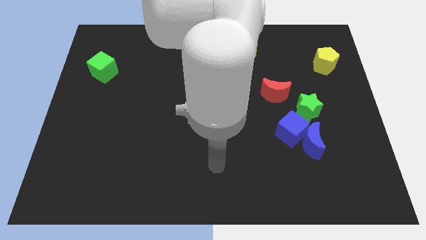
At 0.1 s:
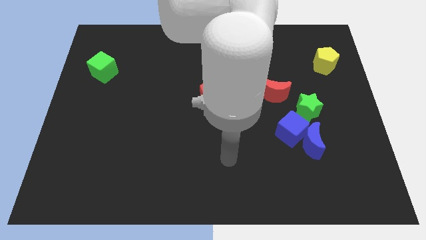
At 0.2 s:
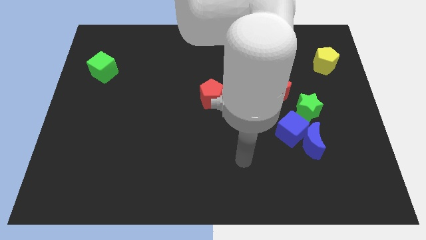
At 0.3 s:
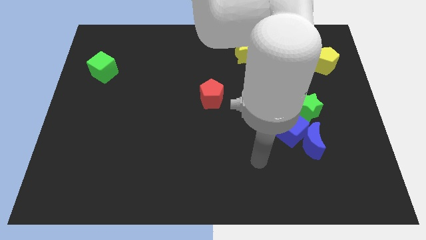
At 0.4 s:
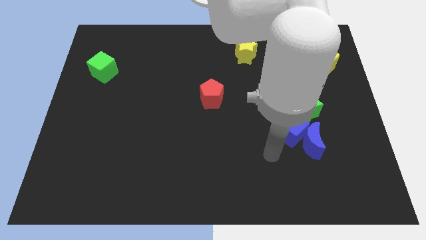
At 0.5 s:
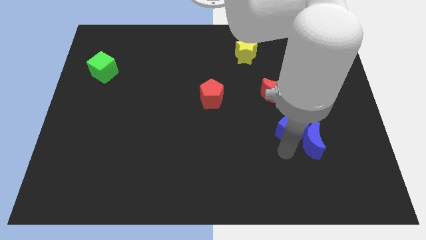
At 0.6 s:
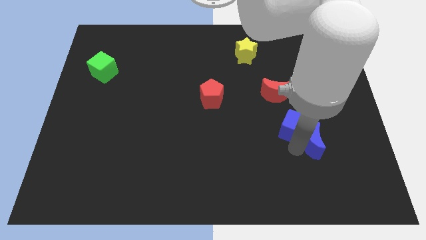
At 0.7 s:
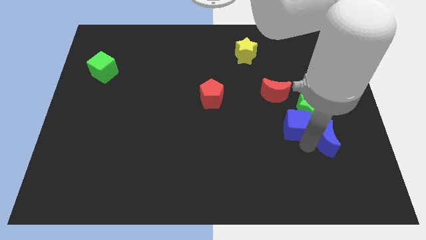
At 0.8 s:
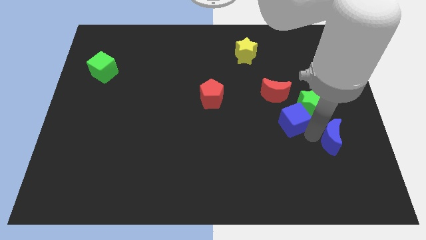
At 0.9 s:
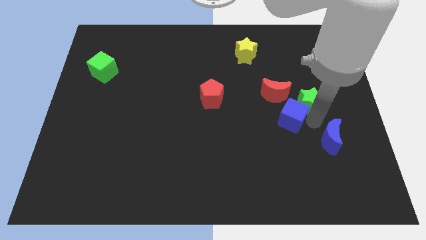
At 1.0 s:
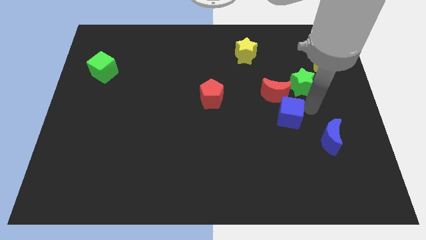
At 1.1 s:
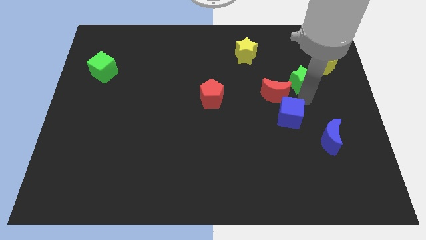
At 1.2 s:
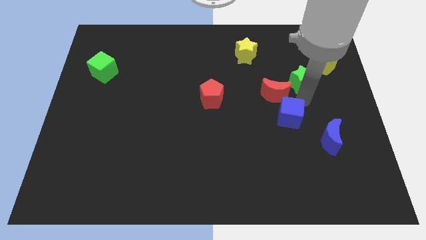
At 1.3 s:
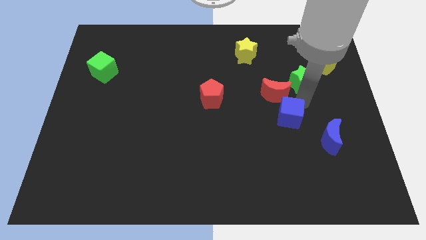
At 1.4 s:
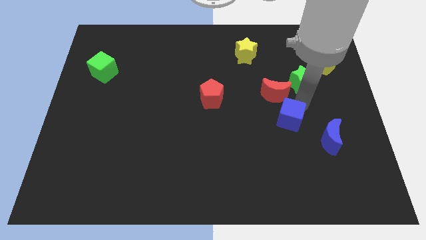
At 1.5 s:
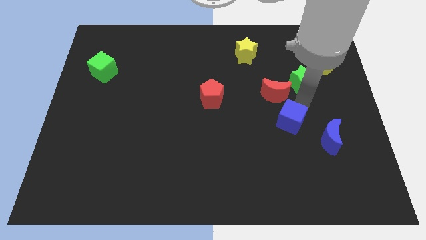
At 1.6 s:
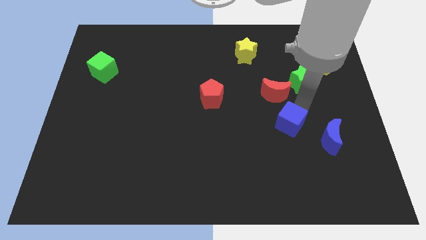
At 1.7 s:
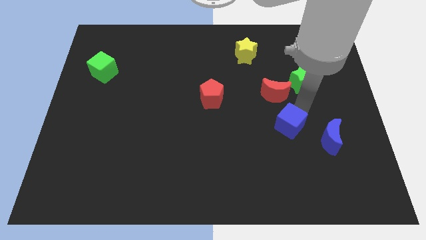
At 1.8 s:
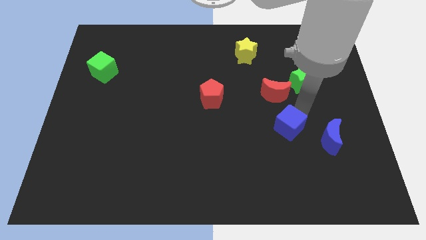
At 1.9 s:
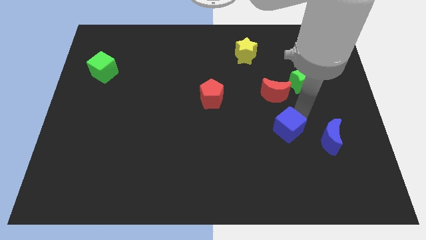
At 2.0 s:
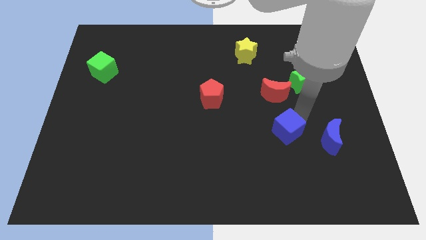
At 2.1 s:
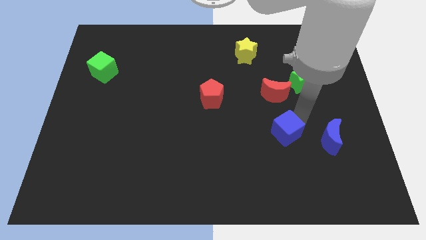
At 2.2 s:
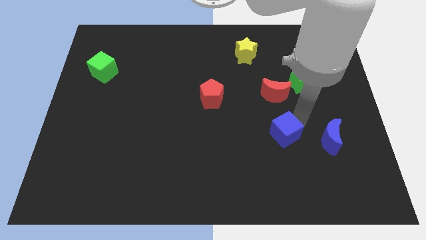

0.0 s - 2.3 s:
move the blue cube away from the blue moon and green star

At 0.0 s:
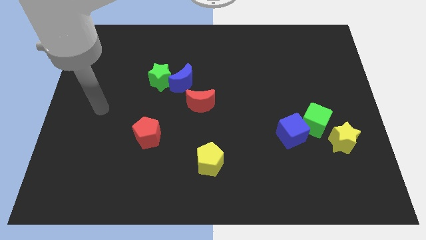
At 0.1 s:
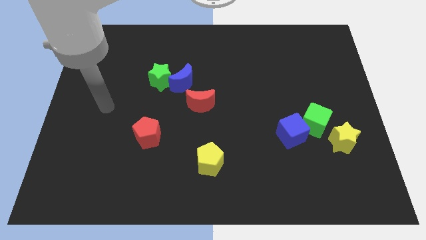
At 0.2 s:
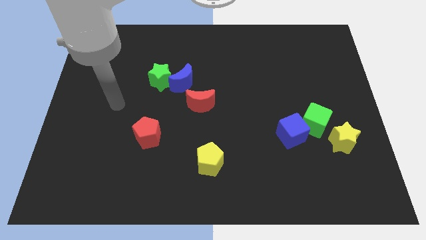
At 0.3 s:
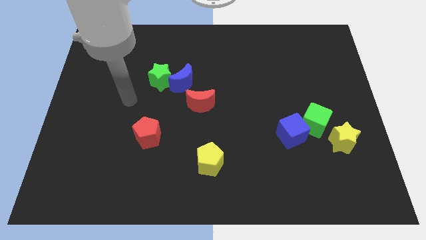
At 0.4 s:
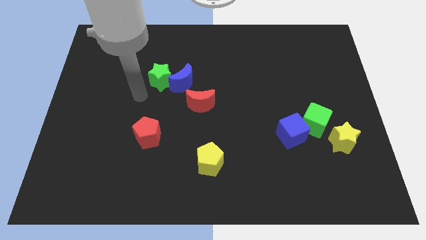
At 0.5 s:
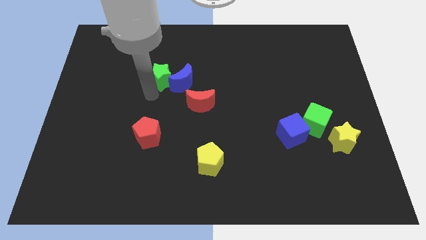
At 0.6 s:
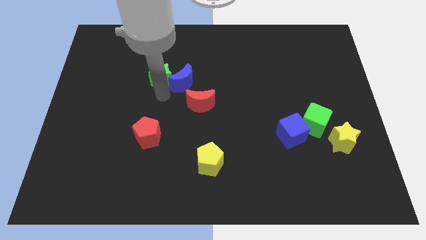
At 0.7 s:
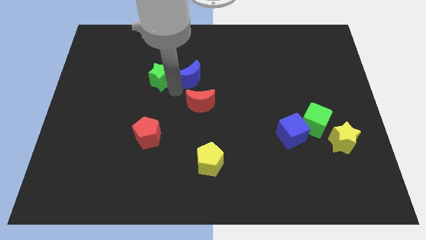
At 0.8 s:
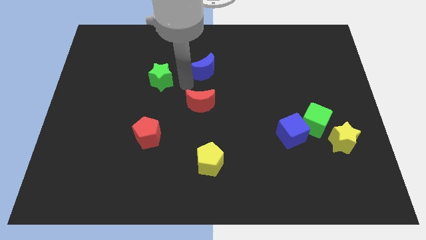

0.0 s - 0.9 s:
separate the green star from the blue moon

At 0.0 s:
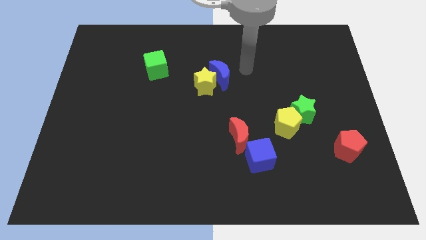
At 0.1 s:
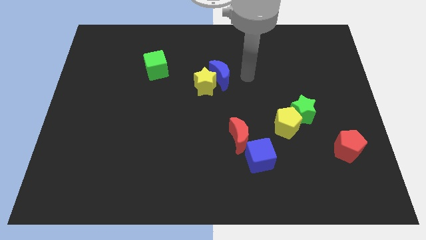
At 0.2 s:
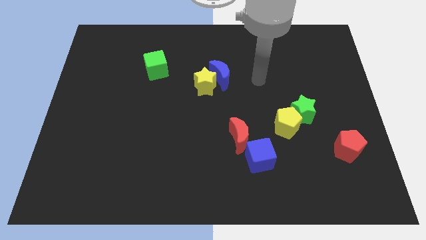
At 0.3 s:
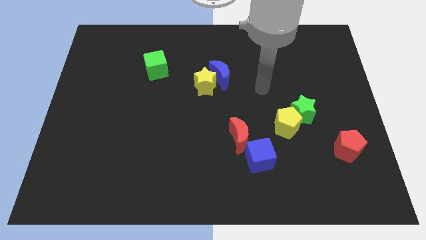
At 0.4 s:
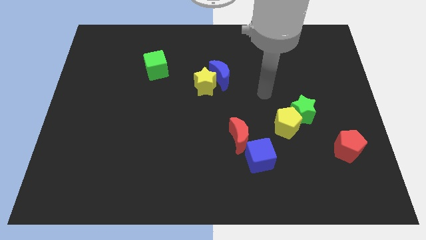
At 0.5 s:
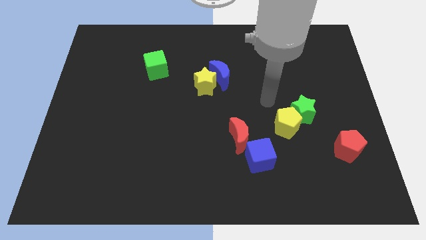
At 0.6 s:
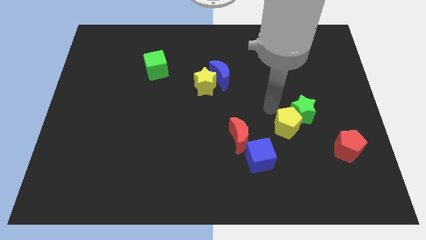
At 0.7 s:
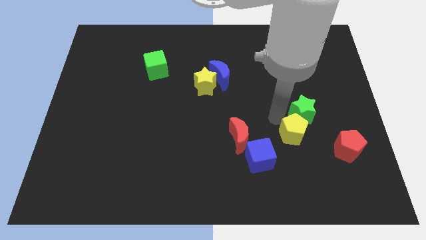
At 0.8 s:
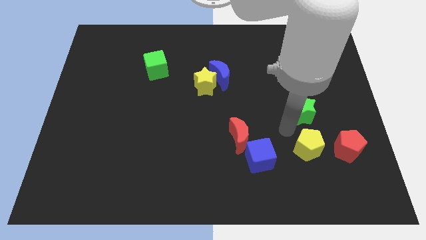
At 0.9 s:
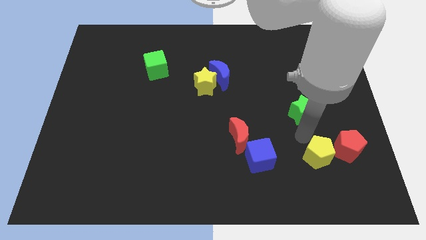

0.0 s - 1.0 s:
separate the green star from the yellow pentagon

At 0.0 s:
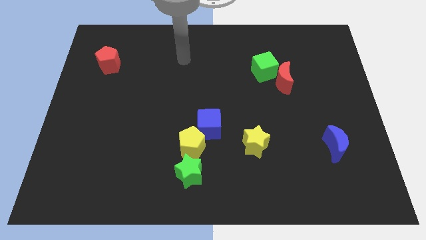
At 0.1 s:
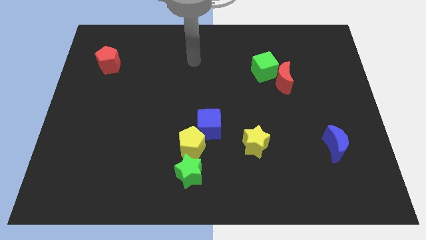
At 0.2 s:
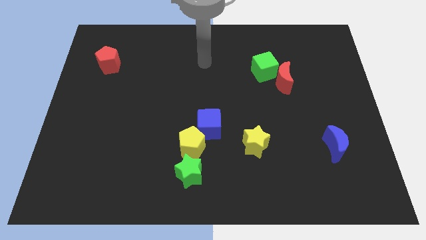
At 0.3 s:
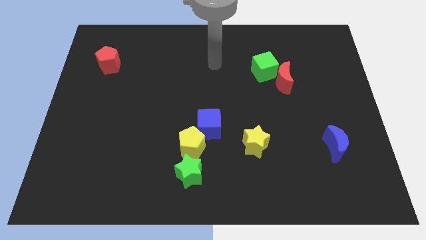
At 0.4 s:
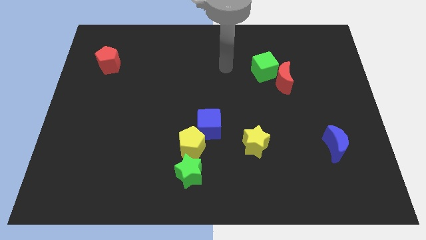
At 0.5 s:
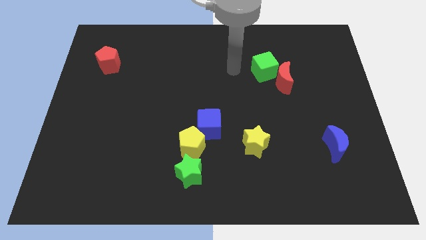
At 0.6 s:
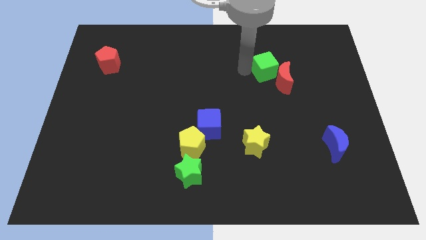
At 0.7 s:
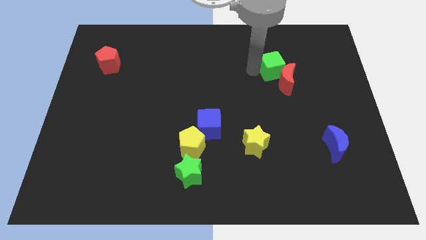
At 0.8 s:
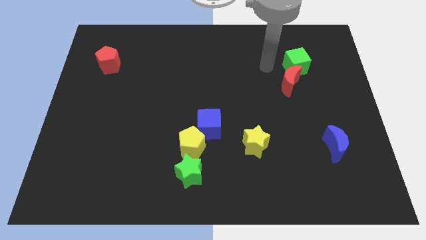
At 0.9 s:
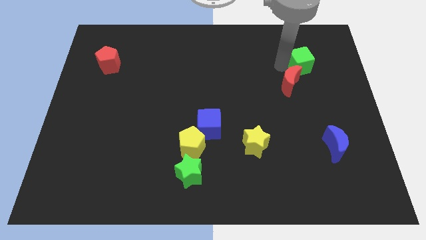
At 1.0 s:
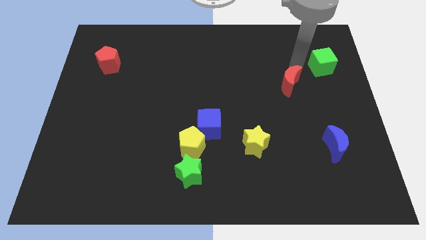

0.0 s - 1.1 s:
separate the red moon from the green cube

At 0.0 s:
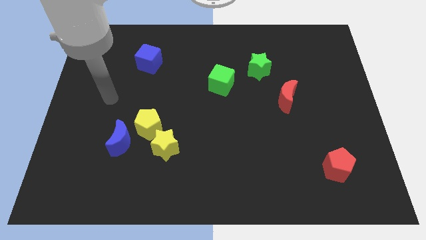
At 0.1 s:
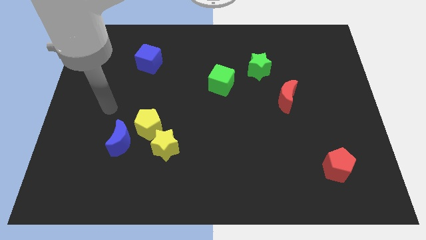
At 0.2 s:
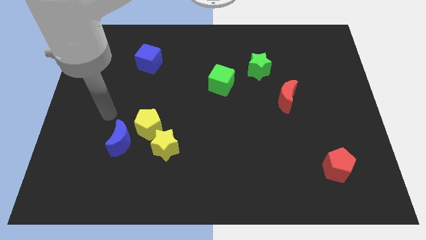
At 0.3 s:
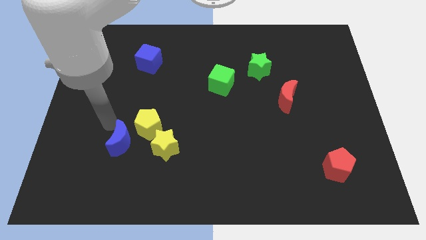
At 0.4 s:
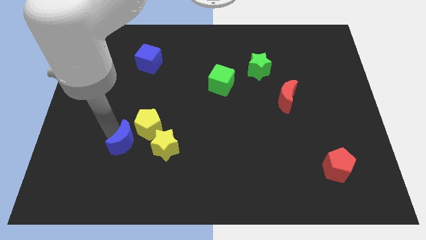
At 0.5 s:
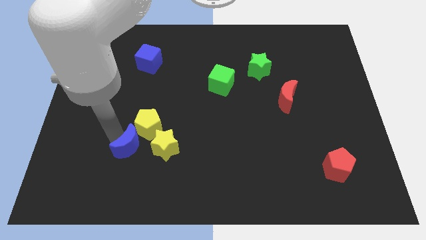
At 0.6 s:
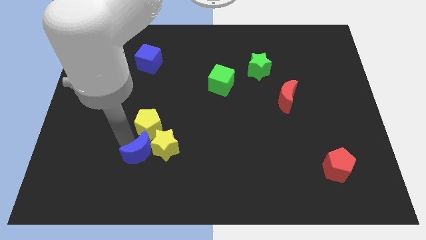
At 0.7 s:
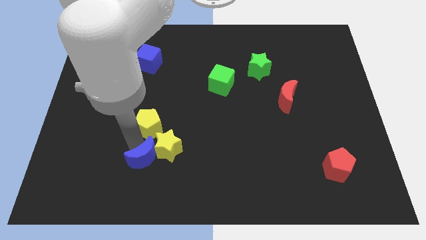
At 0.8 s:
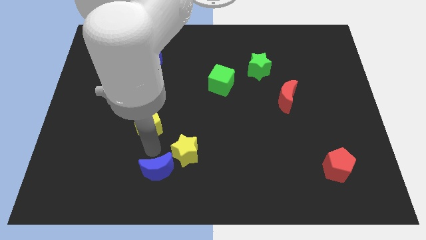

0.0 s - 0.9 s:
pull the yellow pentagon apart from the yellow star and blue moon

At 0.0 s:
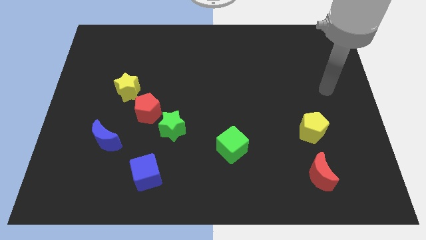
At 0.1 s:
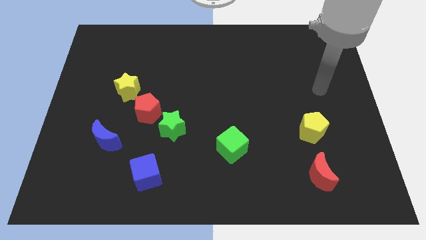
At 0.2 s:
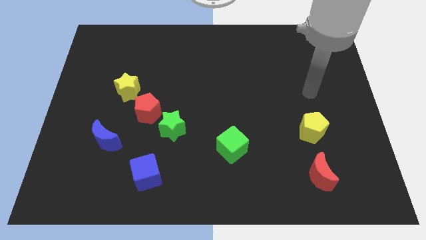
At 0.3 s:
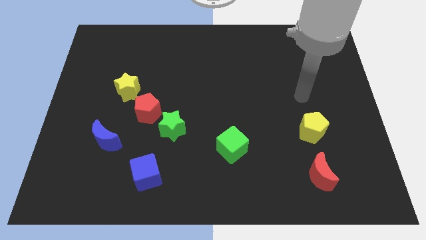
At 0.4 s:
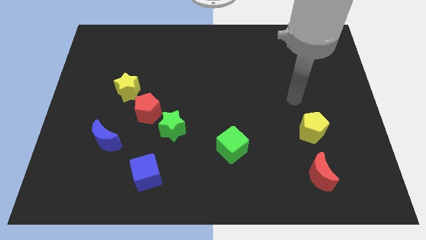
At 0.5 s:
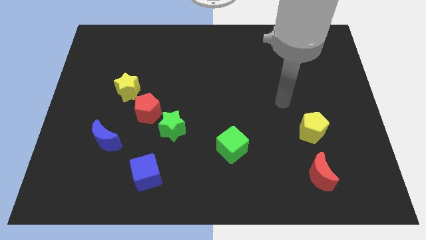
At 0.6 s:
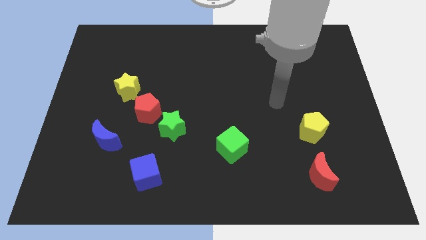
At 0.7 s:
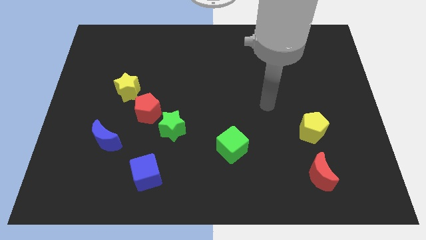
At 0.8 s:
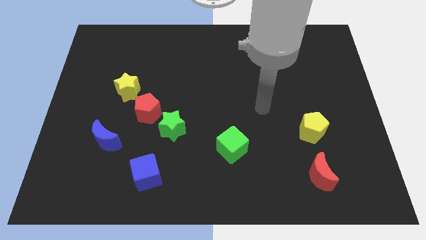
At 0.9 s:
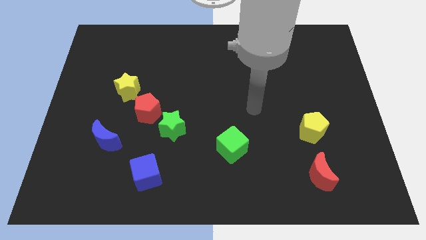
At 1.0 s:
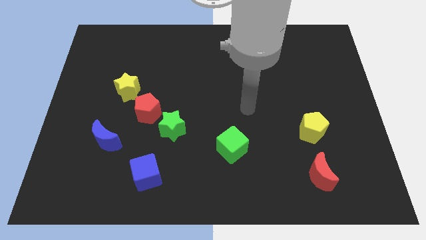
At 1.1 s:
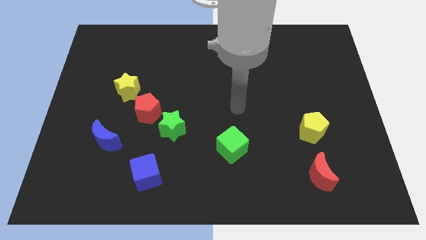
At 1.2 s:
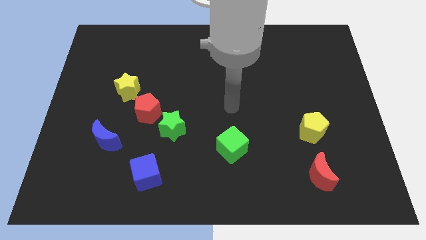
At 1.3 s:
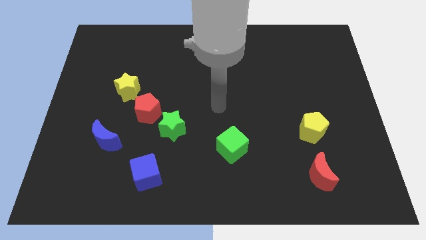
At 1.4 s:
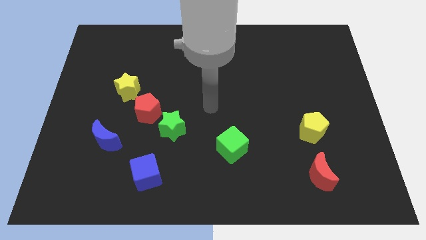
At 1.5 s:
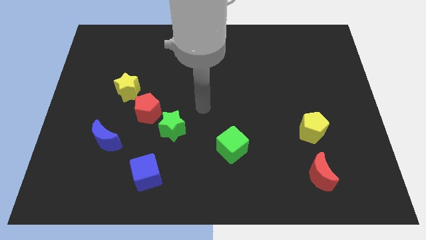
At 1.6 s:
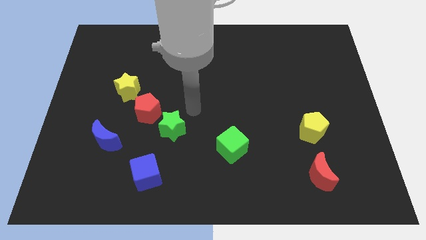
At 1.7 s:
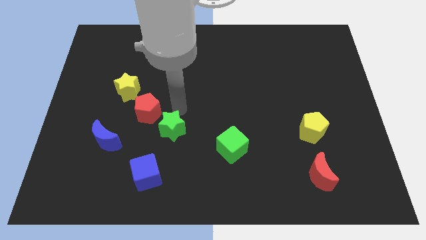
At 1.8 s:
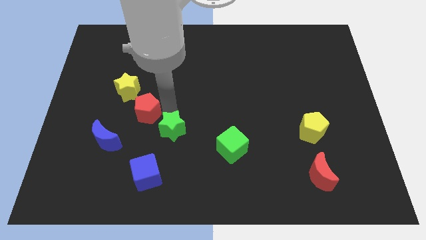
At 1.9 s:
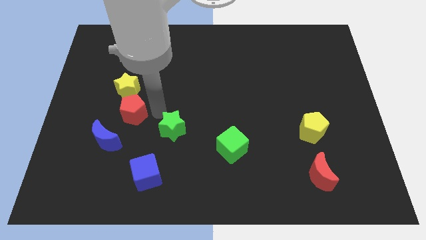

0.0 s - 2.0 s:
separate the green star from the red pentagon

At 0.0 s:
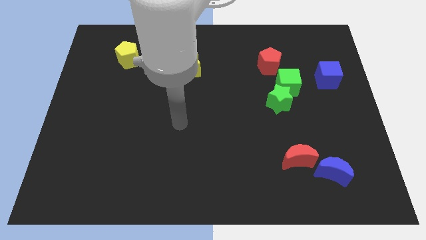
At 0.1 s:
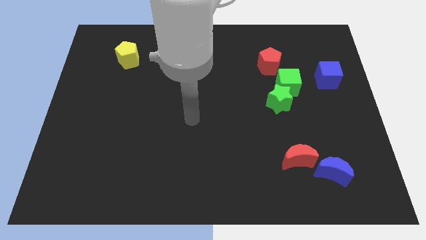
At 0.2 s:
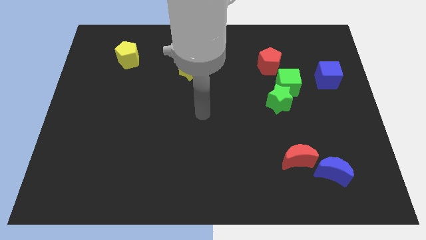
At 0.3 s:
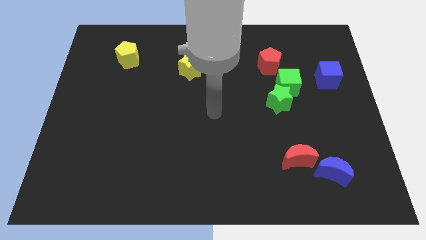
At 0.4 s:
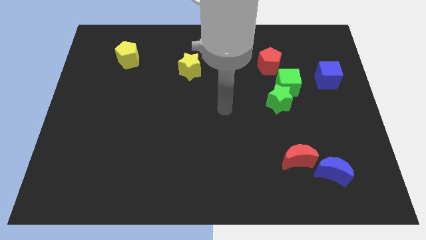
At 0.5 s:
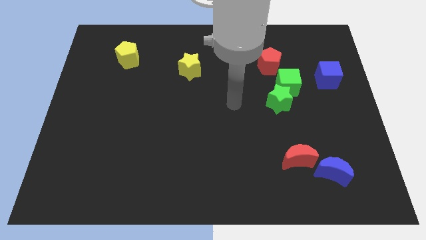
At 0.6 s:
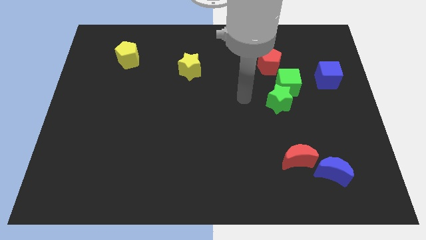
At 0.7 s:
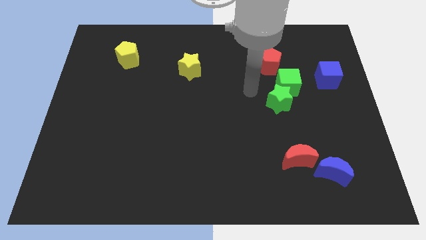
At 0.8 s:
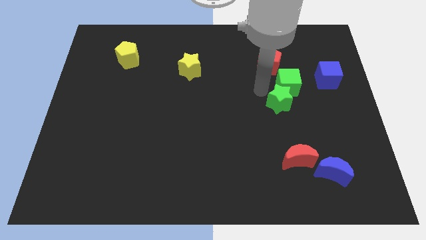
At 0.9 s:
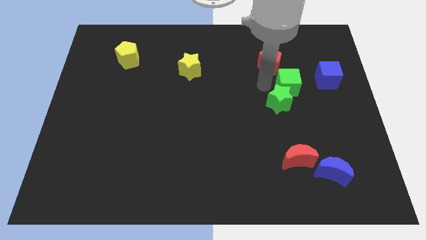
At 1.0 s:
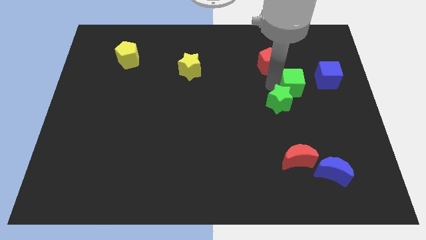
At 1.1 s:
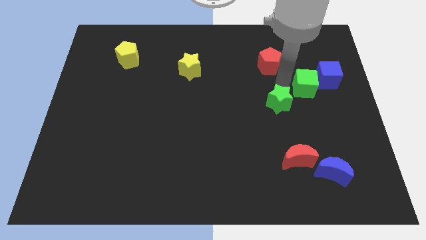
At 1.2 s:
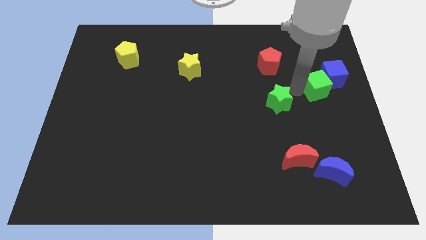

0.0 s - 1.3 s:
separate the green star from the green cube
